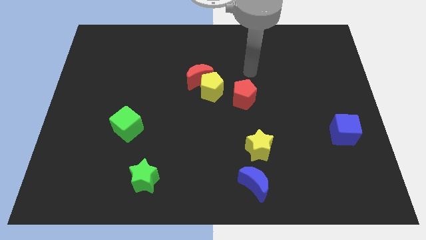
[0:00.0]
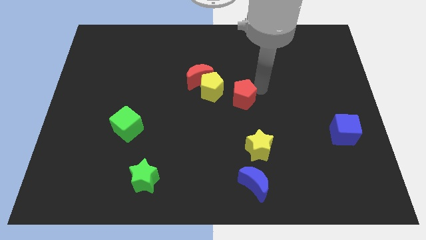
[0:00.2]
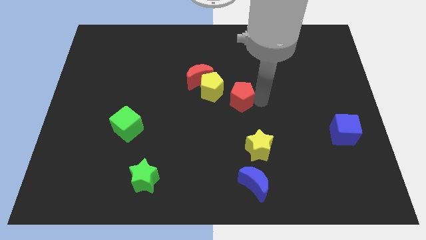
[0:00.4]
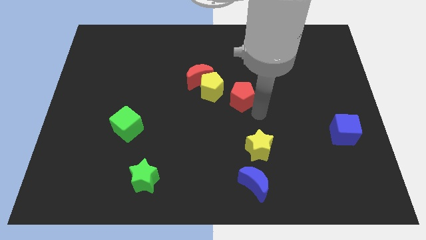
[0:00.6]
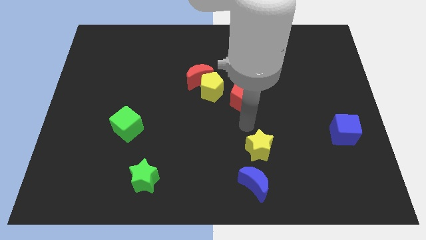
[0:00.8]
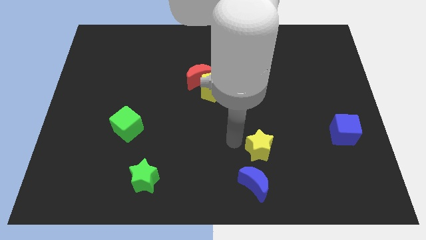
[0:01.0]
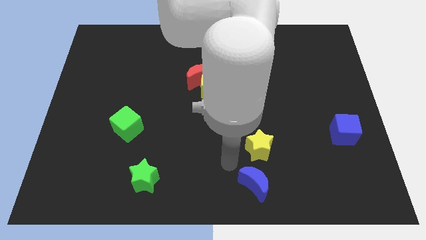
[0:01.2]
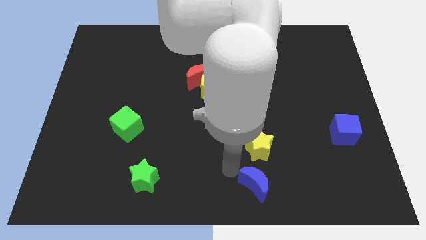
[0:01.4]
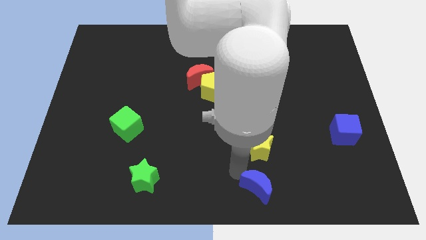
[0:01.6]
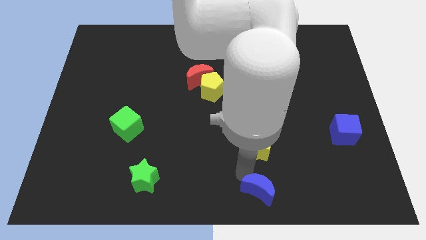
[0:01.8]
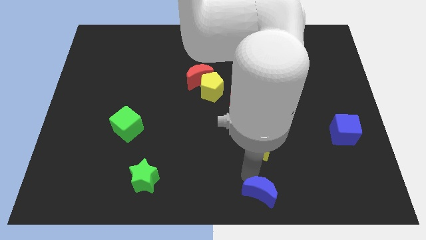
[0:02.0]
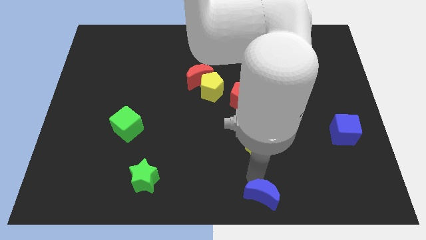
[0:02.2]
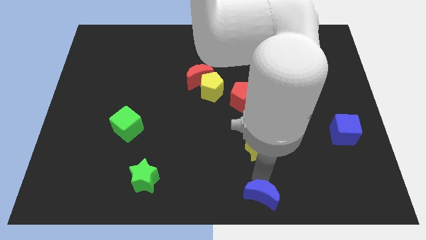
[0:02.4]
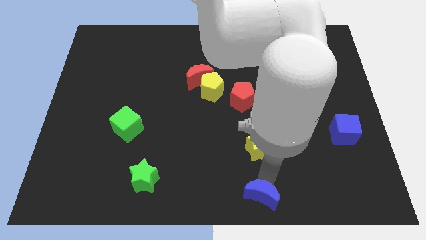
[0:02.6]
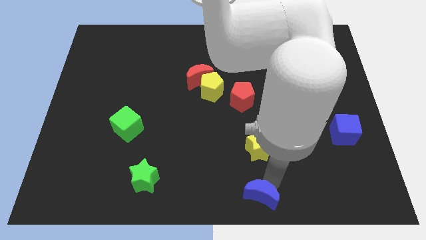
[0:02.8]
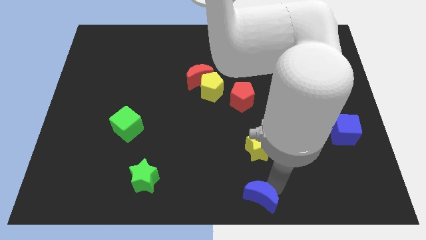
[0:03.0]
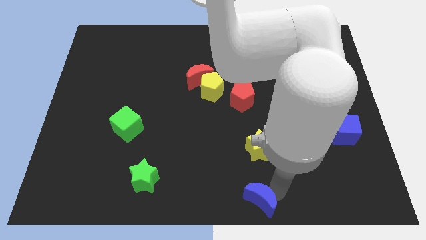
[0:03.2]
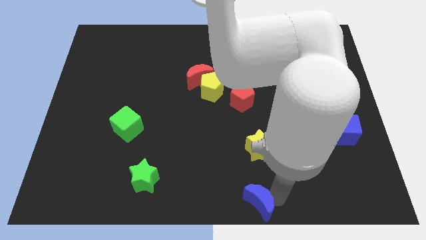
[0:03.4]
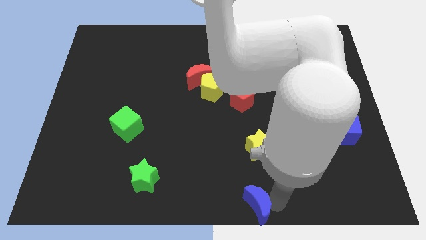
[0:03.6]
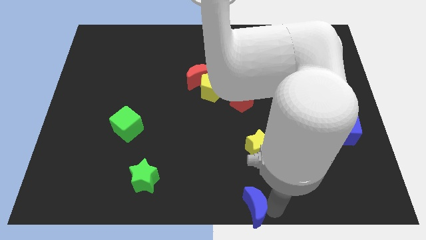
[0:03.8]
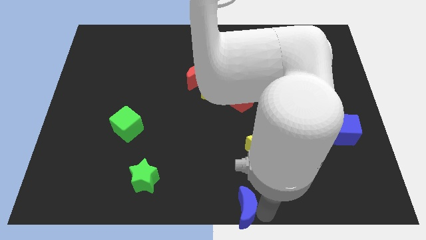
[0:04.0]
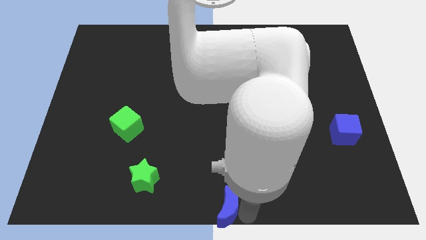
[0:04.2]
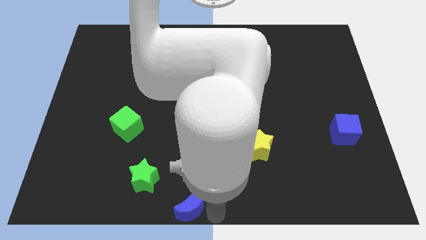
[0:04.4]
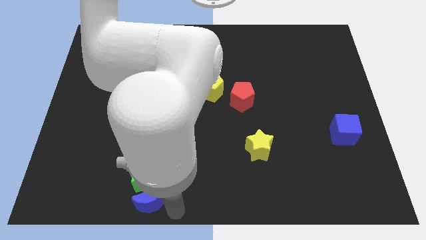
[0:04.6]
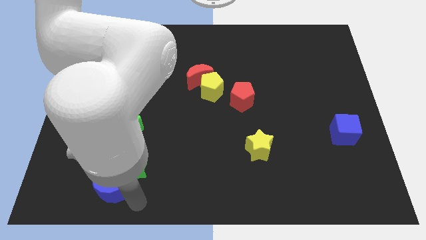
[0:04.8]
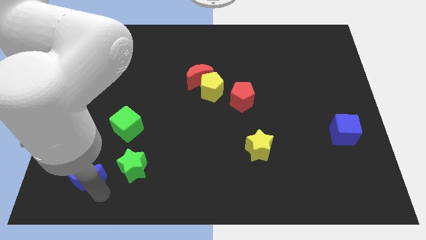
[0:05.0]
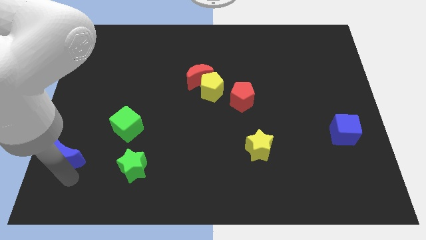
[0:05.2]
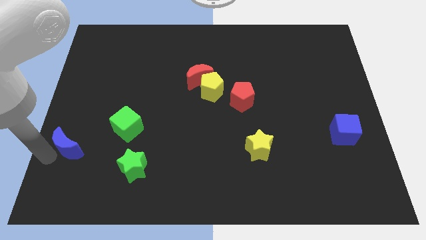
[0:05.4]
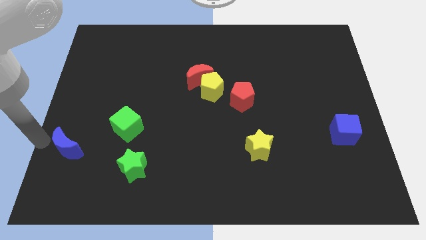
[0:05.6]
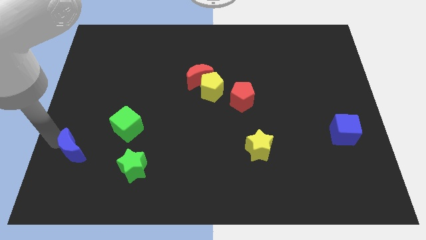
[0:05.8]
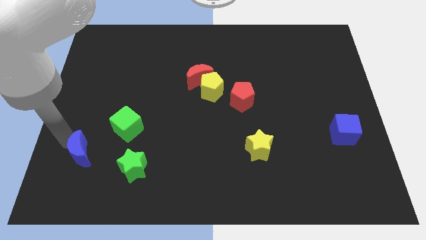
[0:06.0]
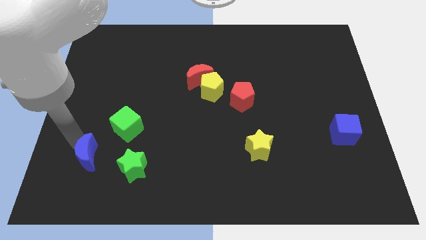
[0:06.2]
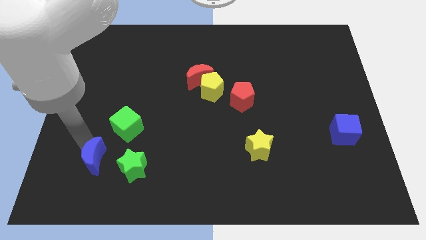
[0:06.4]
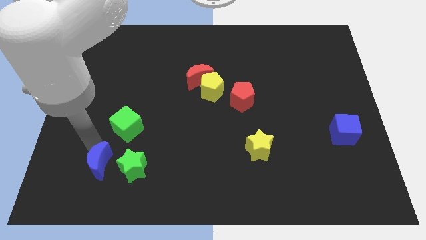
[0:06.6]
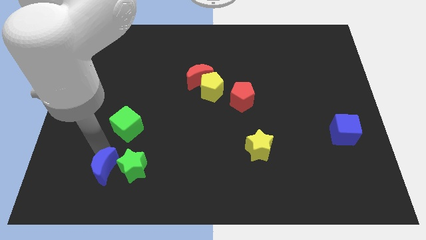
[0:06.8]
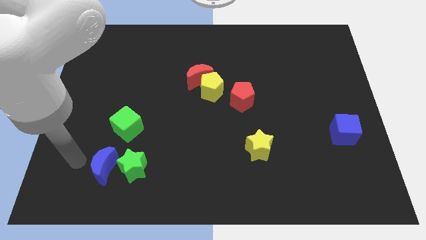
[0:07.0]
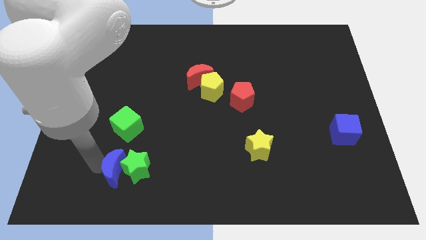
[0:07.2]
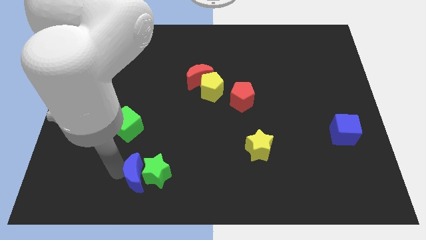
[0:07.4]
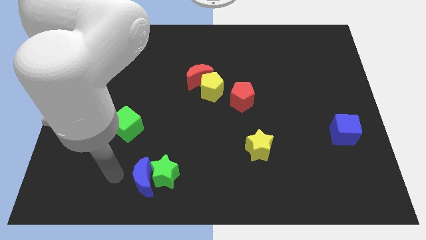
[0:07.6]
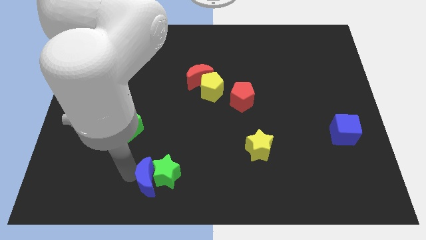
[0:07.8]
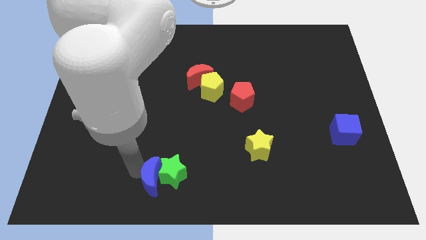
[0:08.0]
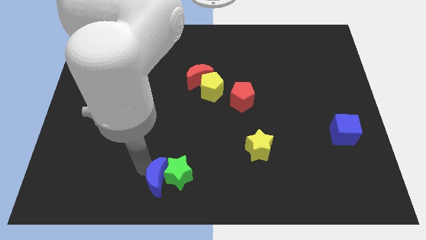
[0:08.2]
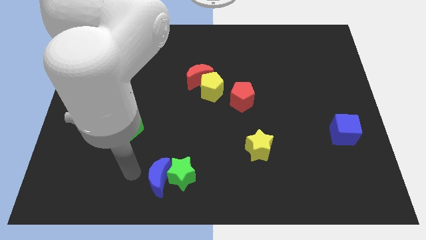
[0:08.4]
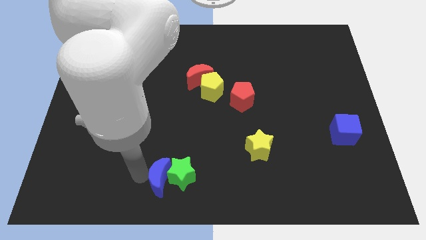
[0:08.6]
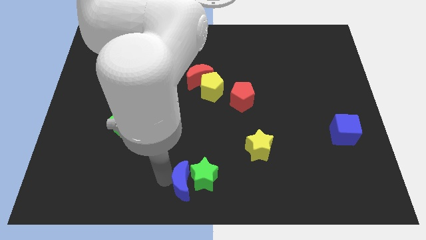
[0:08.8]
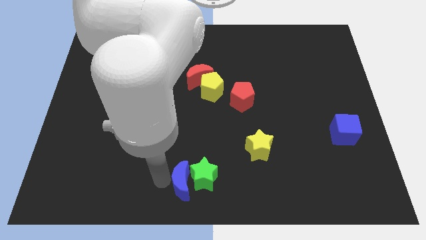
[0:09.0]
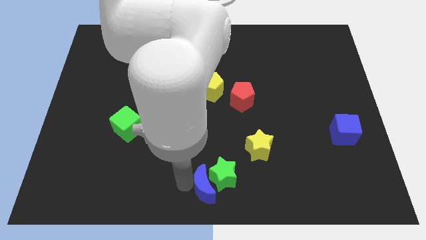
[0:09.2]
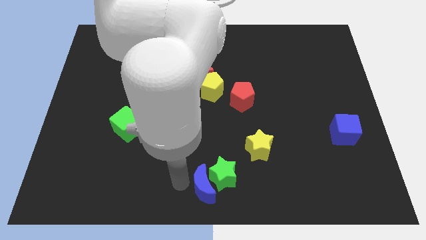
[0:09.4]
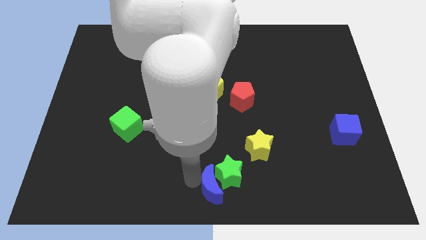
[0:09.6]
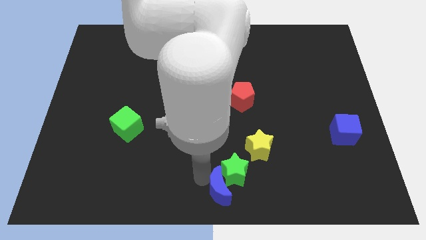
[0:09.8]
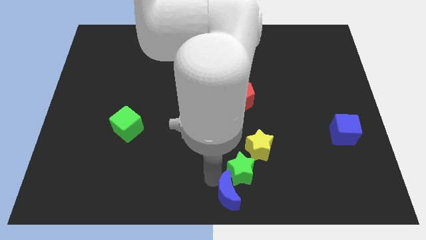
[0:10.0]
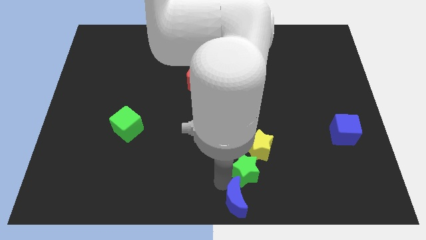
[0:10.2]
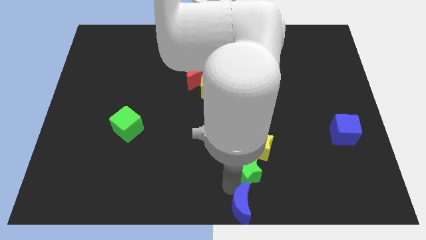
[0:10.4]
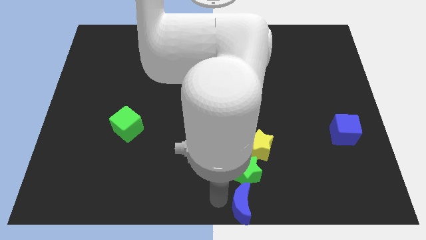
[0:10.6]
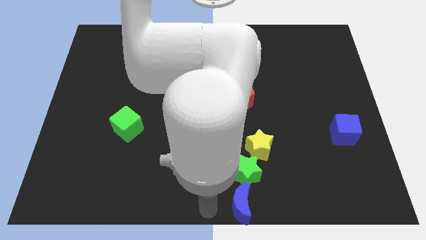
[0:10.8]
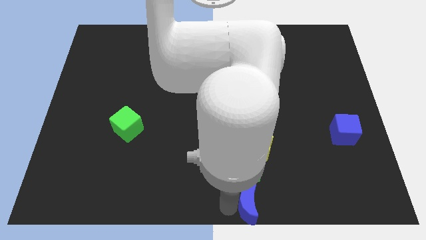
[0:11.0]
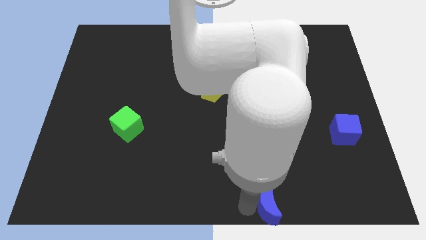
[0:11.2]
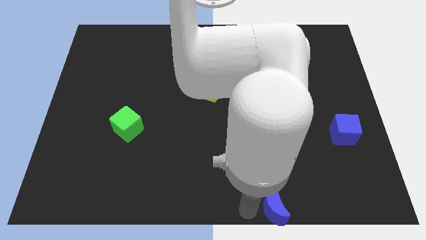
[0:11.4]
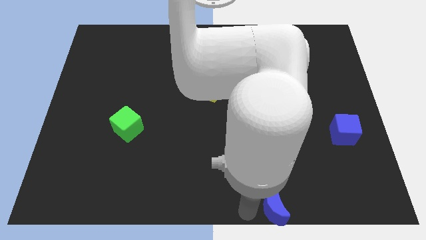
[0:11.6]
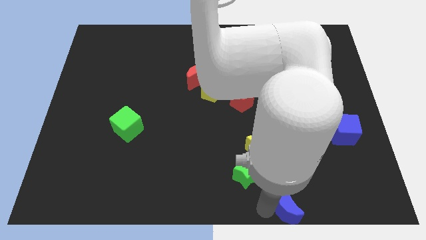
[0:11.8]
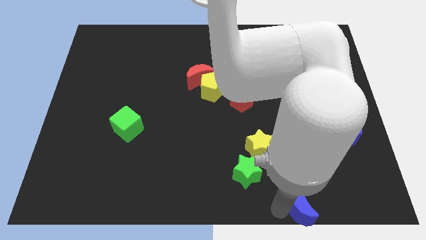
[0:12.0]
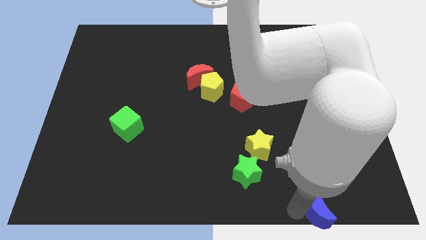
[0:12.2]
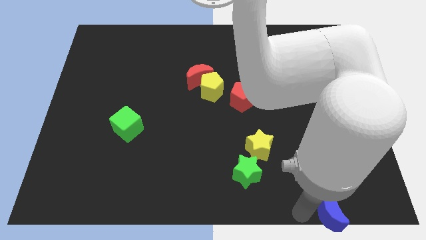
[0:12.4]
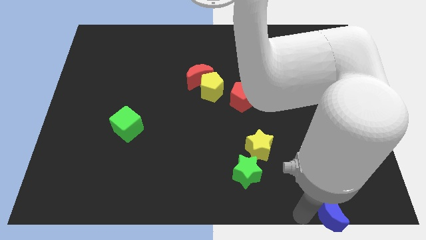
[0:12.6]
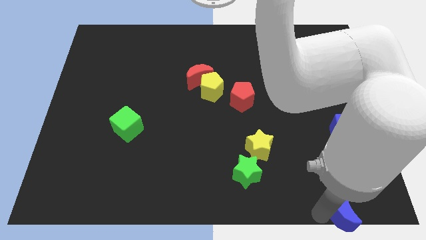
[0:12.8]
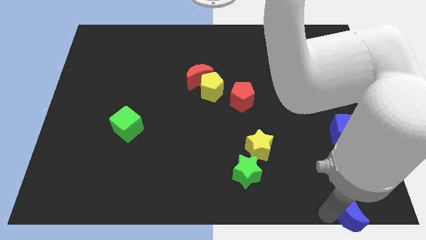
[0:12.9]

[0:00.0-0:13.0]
put the blue moon to the bottom right
